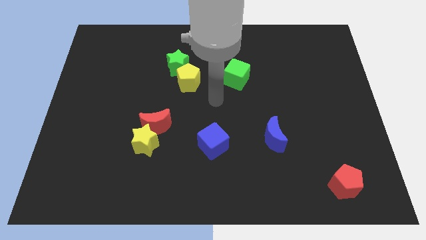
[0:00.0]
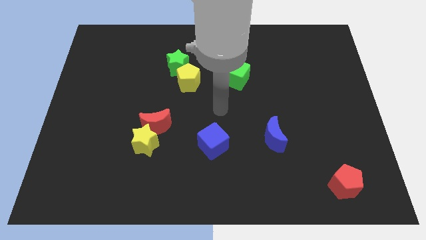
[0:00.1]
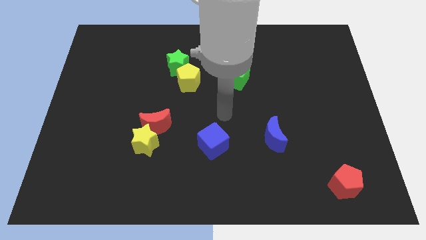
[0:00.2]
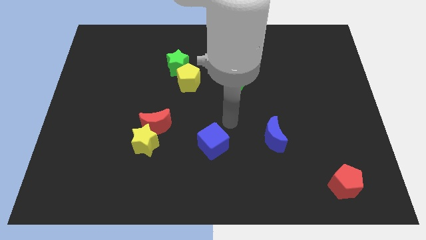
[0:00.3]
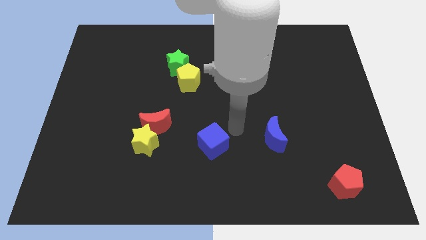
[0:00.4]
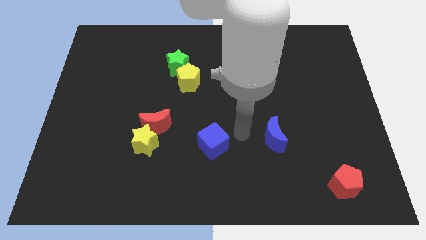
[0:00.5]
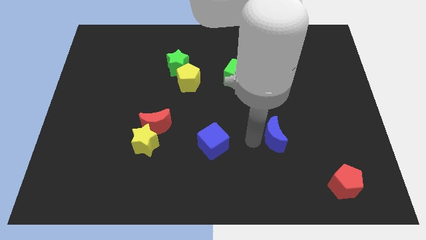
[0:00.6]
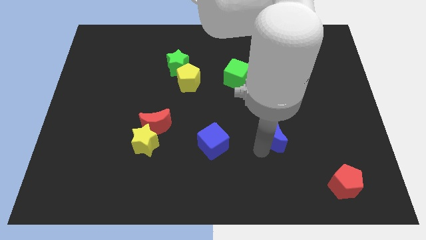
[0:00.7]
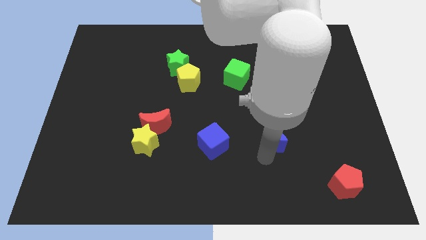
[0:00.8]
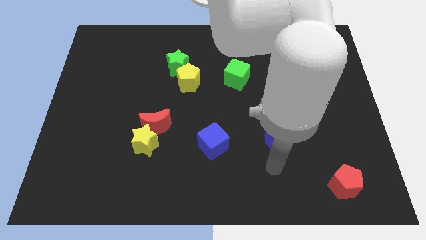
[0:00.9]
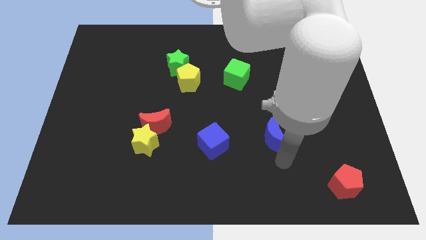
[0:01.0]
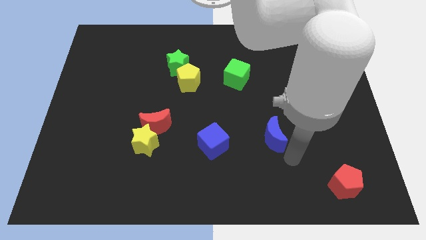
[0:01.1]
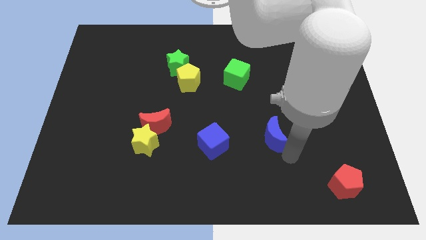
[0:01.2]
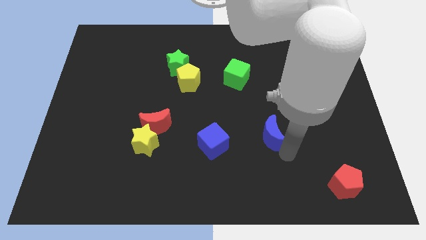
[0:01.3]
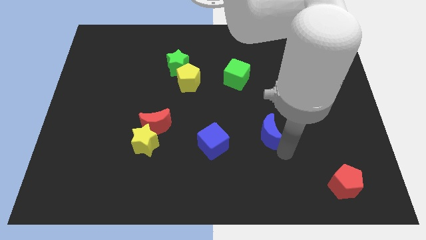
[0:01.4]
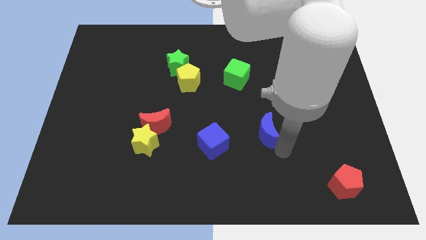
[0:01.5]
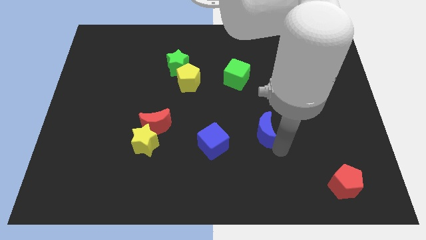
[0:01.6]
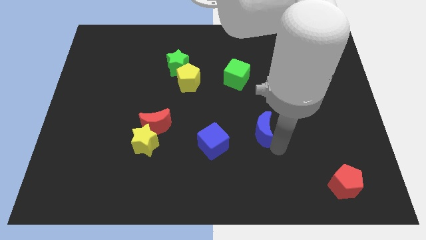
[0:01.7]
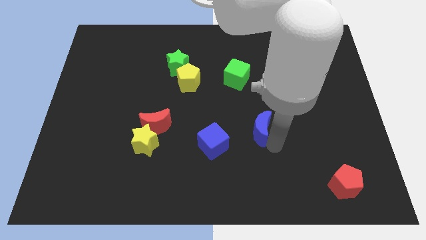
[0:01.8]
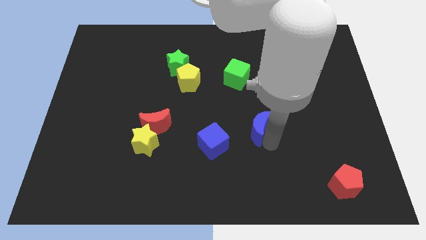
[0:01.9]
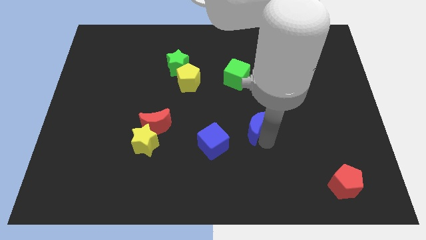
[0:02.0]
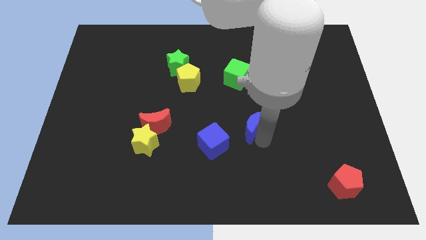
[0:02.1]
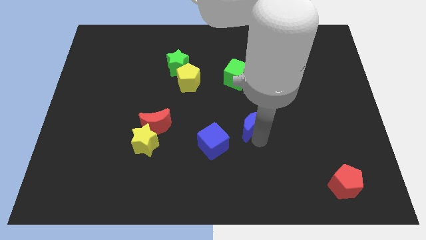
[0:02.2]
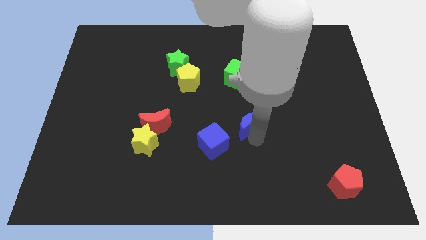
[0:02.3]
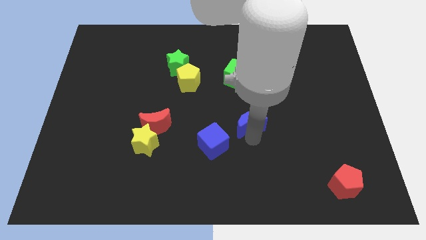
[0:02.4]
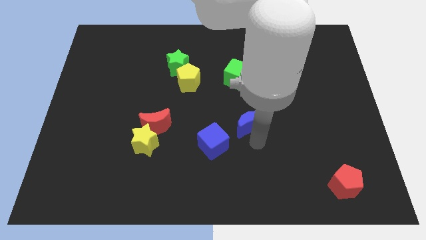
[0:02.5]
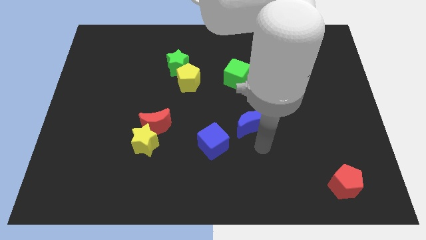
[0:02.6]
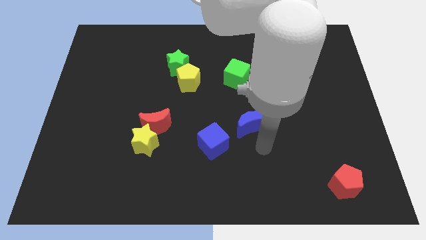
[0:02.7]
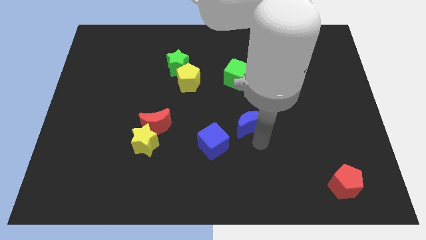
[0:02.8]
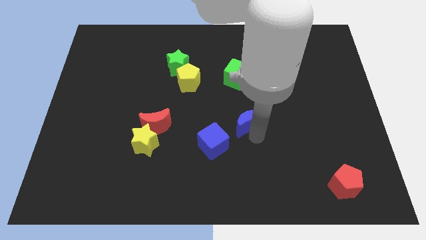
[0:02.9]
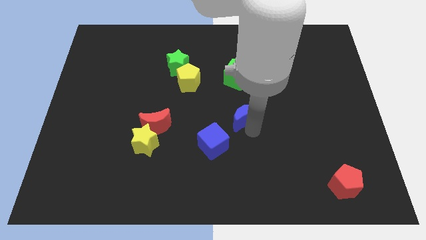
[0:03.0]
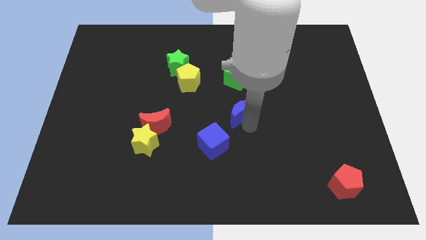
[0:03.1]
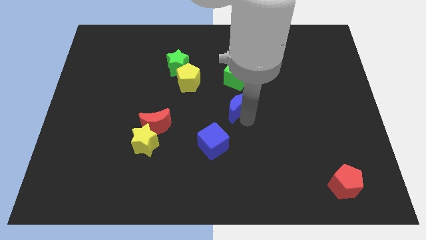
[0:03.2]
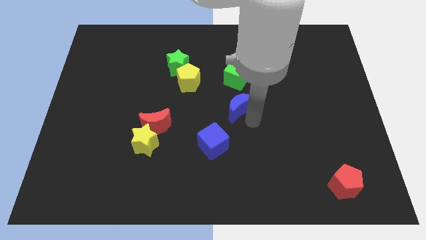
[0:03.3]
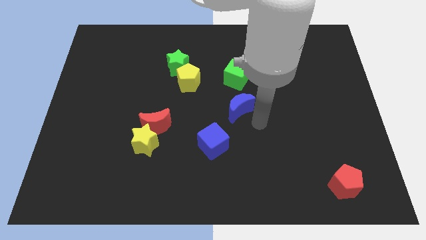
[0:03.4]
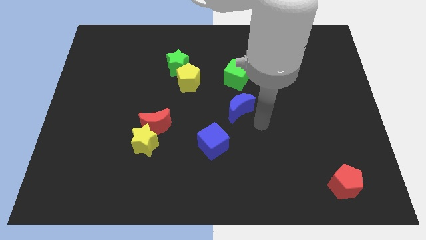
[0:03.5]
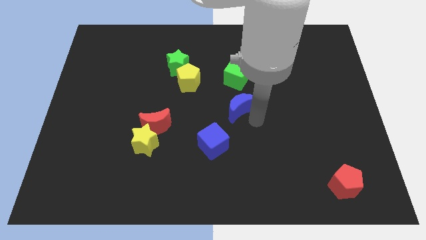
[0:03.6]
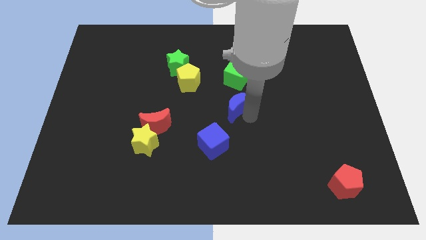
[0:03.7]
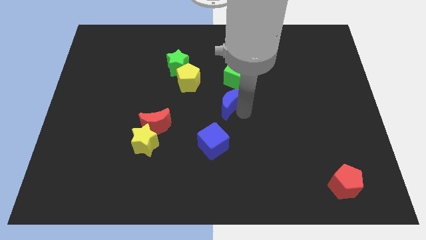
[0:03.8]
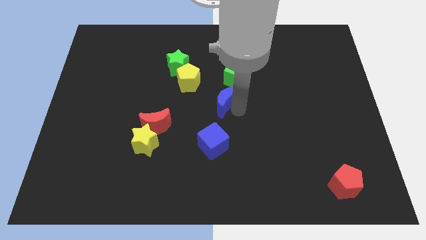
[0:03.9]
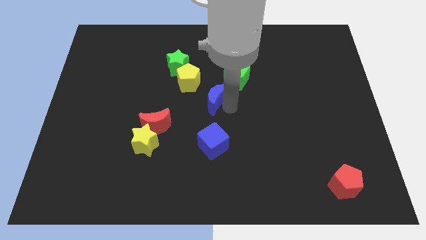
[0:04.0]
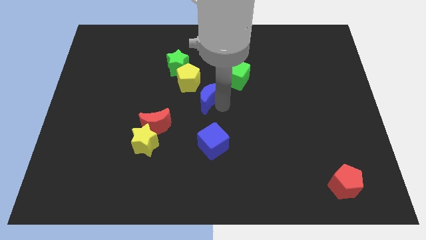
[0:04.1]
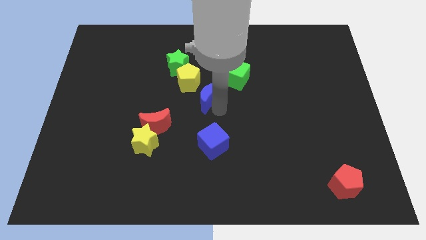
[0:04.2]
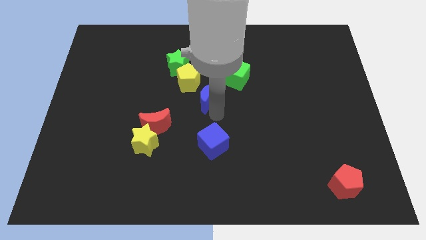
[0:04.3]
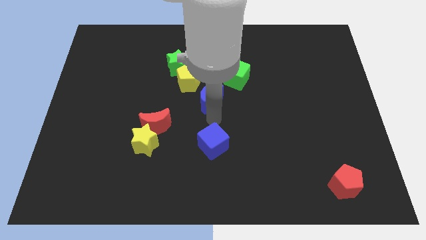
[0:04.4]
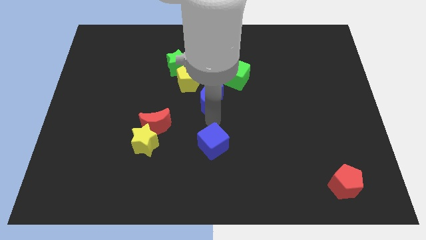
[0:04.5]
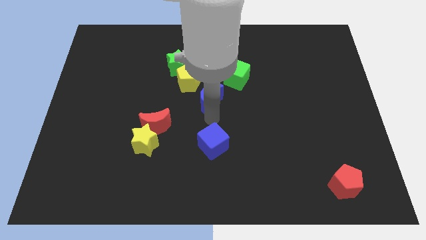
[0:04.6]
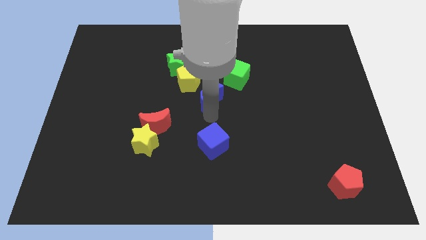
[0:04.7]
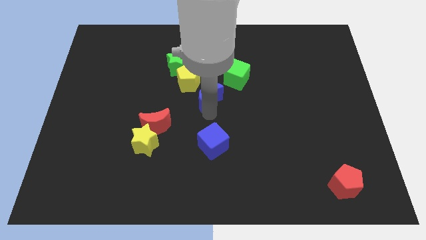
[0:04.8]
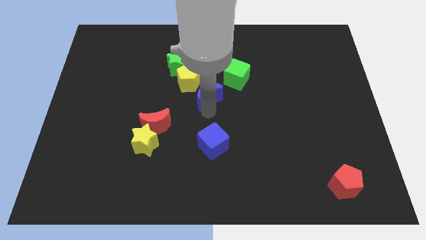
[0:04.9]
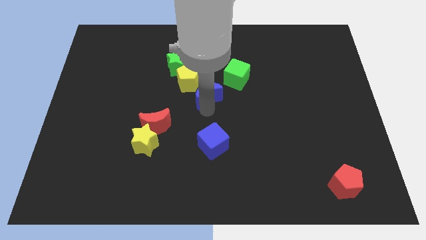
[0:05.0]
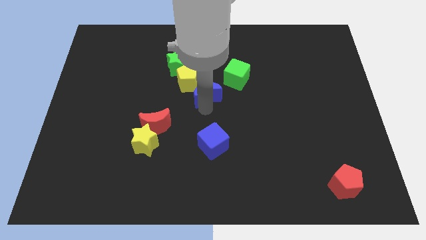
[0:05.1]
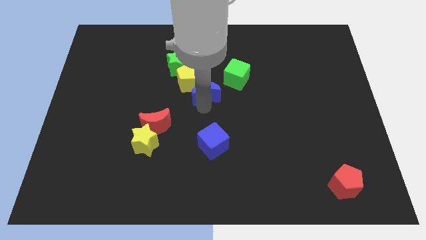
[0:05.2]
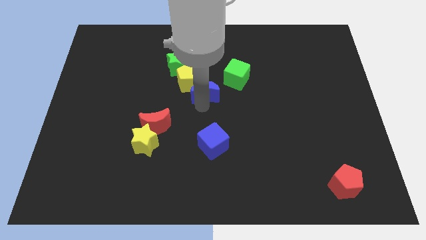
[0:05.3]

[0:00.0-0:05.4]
move the blue moon towards the yellow pentagon

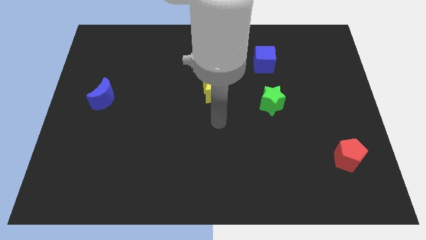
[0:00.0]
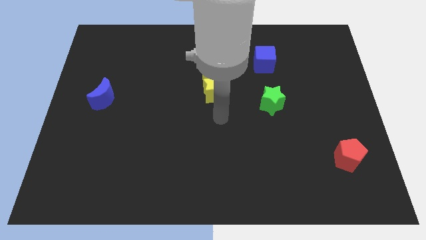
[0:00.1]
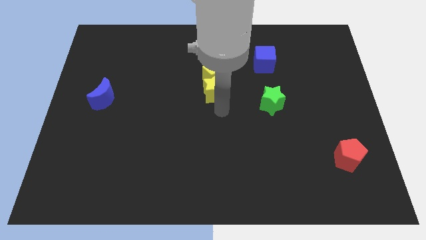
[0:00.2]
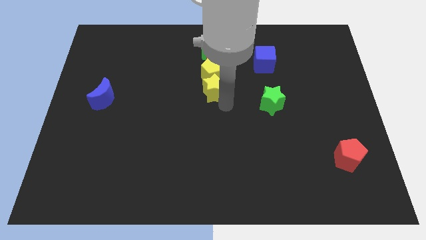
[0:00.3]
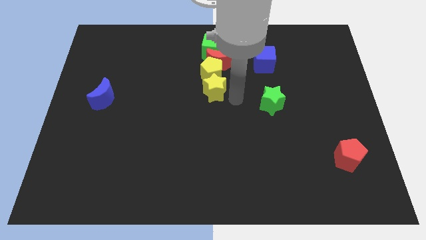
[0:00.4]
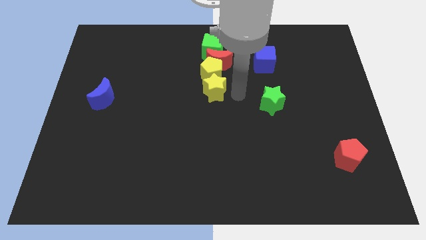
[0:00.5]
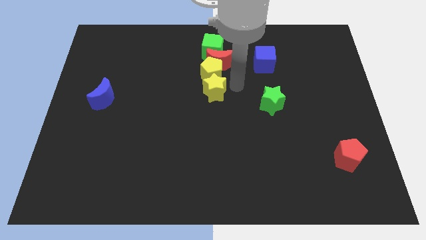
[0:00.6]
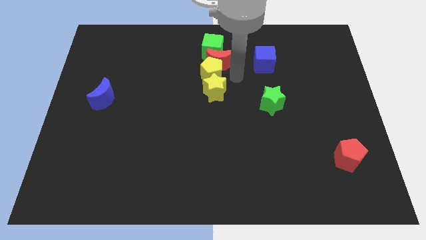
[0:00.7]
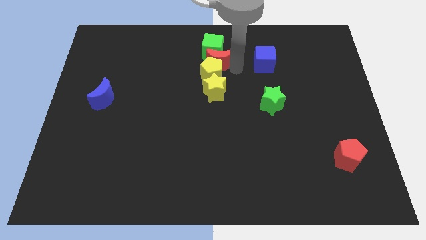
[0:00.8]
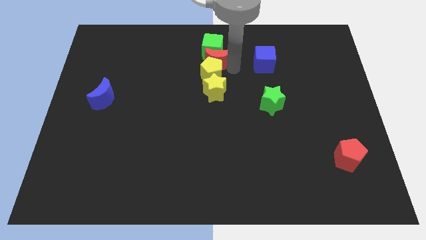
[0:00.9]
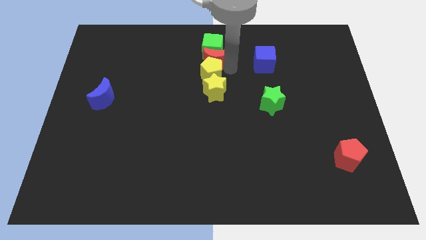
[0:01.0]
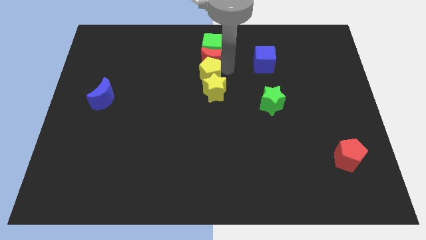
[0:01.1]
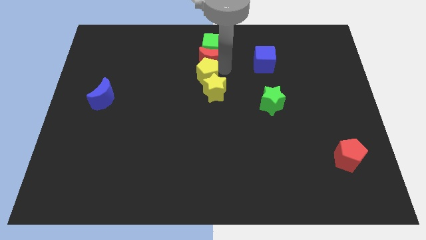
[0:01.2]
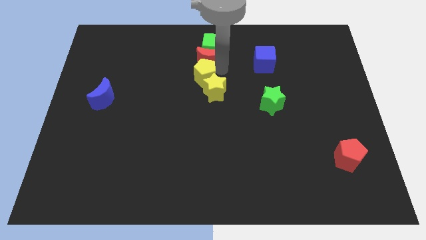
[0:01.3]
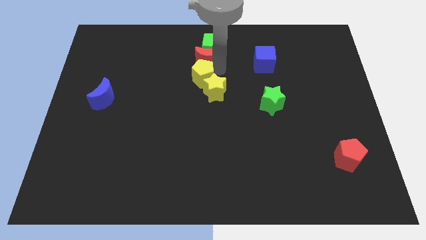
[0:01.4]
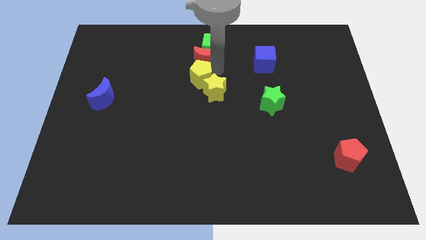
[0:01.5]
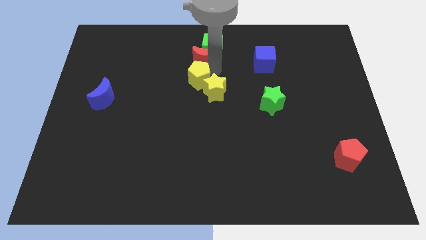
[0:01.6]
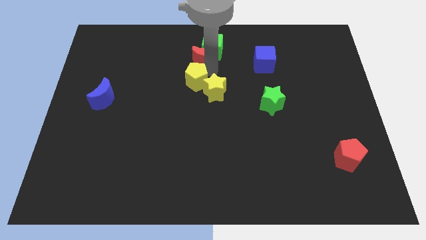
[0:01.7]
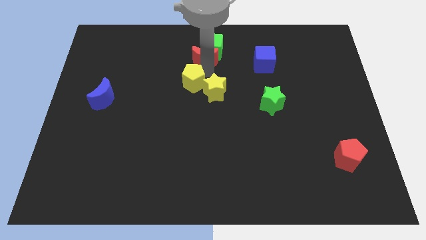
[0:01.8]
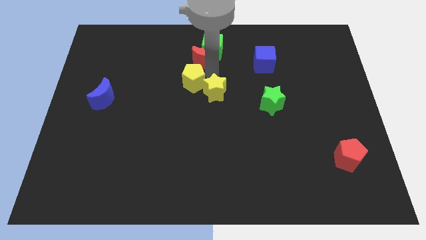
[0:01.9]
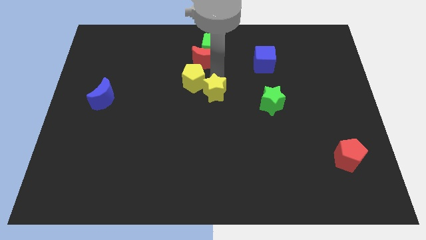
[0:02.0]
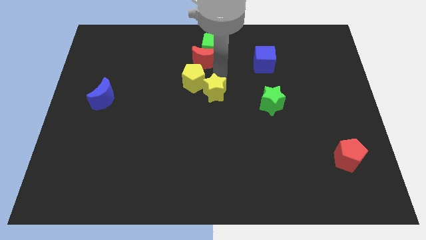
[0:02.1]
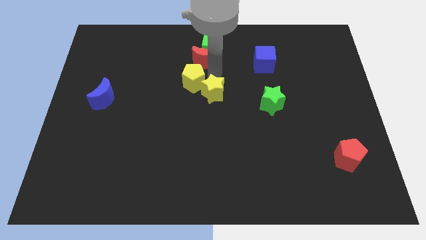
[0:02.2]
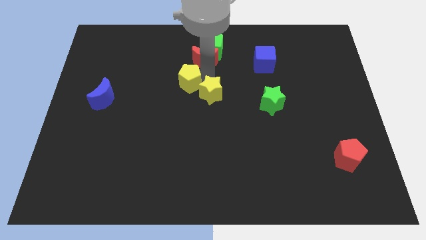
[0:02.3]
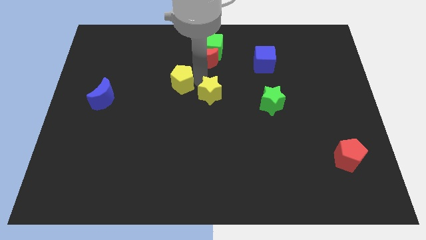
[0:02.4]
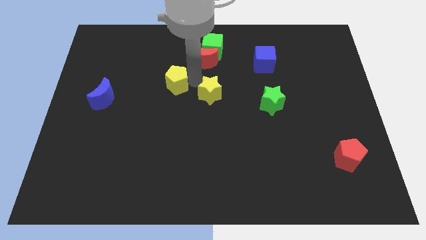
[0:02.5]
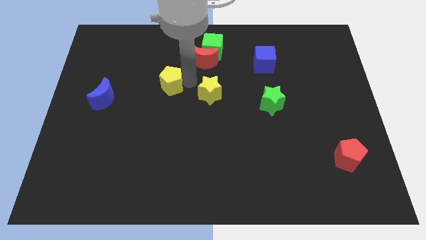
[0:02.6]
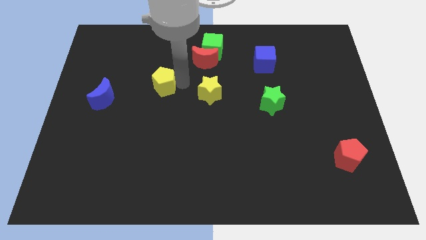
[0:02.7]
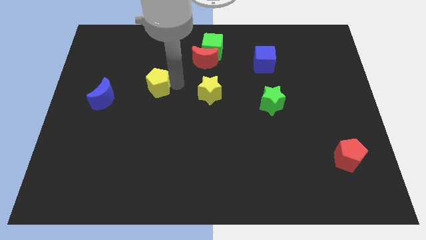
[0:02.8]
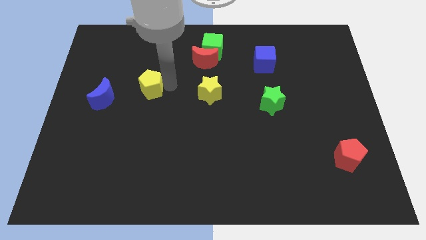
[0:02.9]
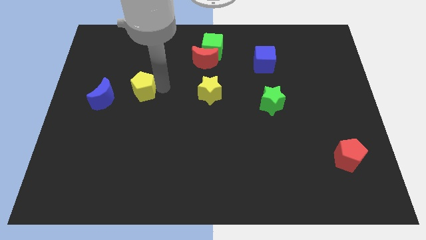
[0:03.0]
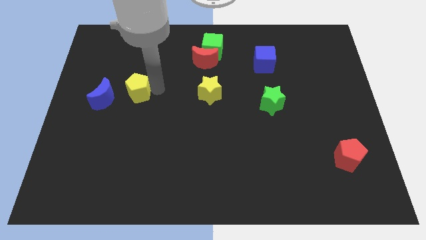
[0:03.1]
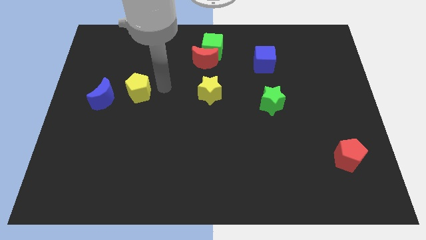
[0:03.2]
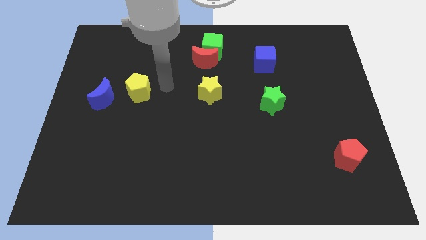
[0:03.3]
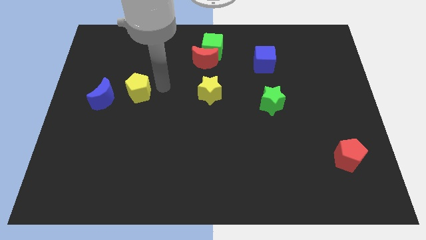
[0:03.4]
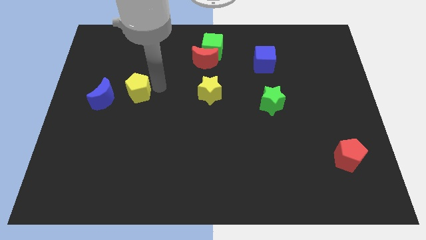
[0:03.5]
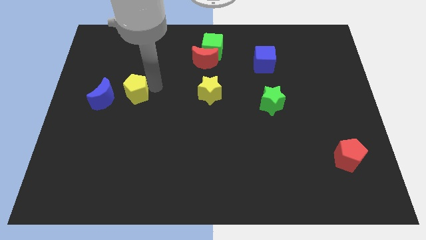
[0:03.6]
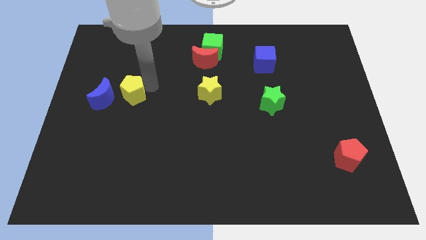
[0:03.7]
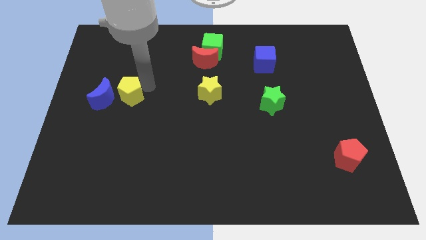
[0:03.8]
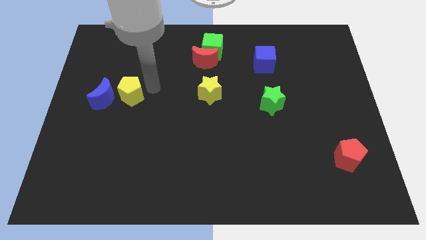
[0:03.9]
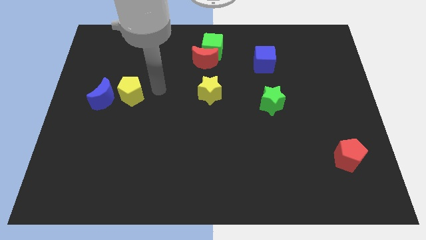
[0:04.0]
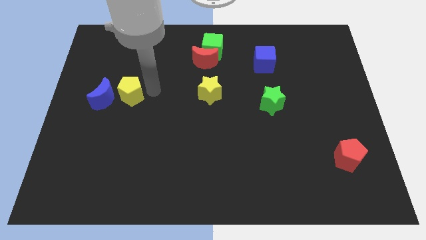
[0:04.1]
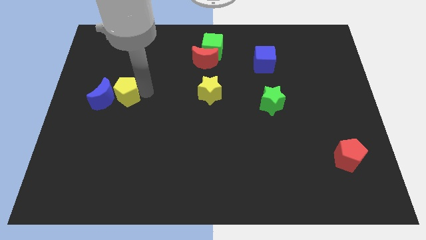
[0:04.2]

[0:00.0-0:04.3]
push the yellow pentagon to the blue moon
